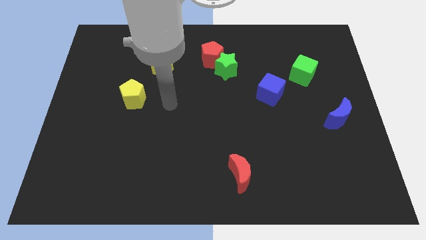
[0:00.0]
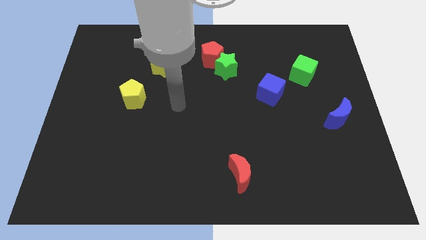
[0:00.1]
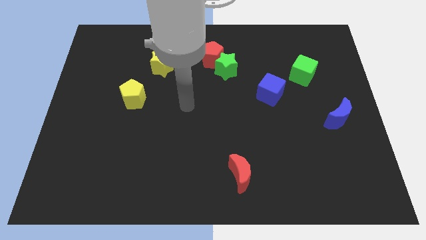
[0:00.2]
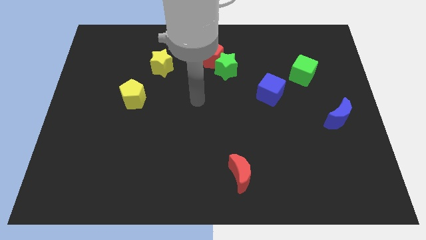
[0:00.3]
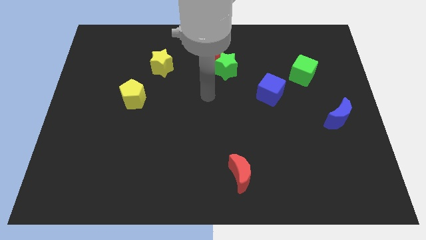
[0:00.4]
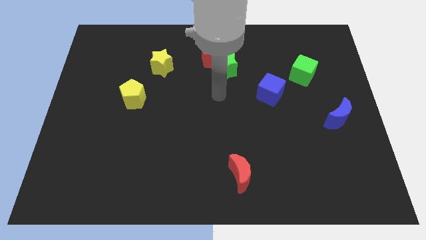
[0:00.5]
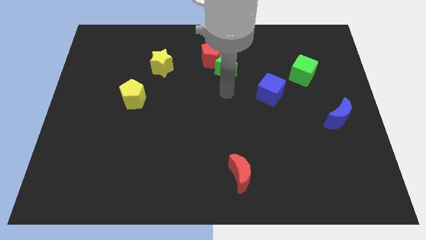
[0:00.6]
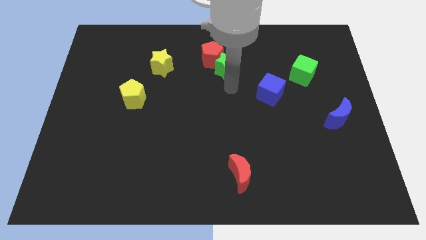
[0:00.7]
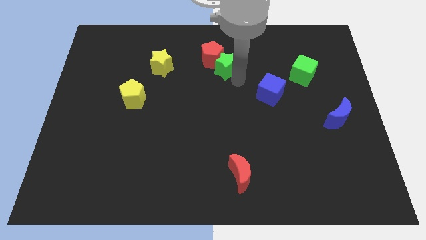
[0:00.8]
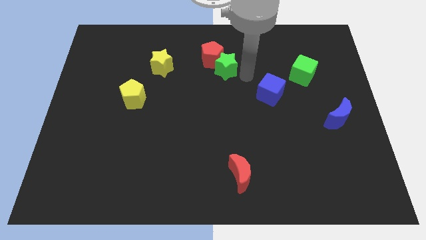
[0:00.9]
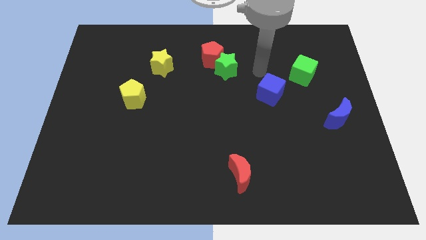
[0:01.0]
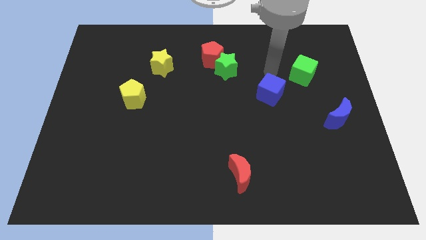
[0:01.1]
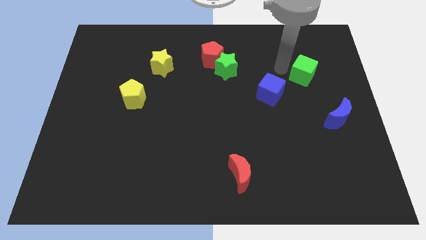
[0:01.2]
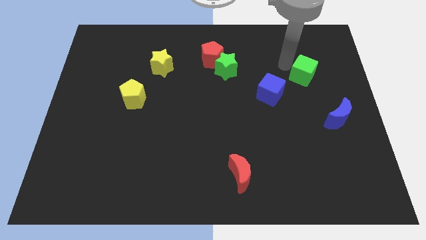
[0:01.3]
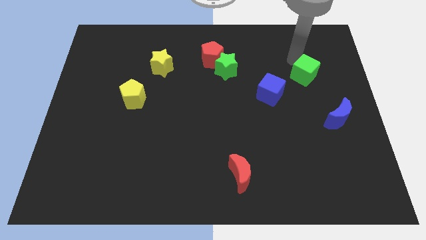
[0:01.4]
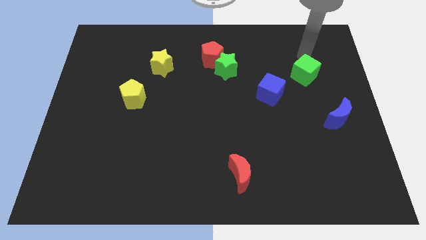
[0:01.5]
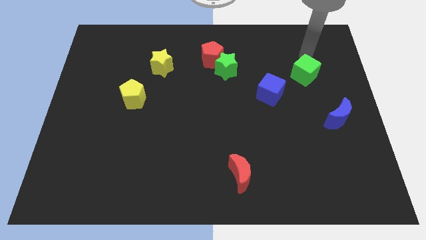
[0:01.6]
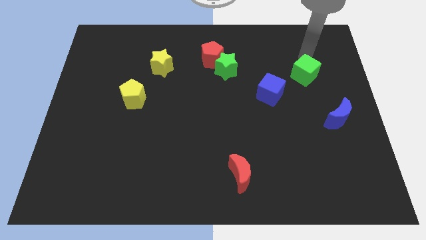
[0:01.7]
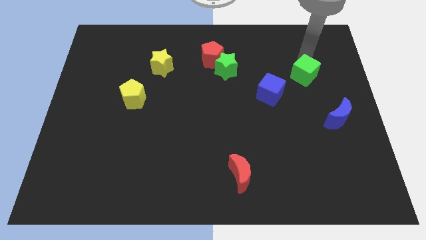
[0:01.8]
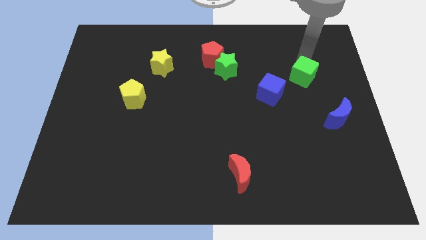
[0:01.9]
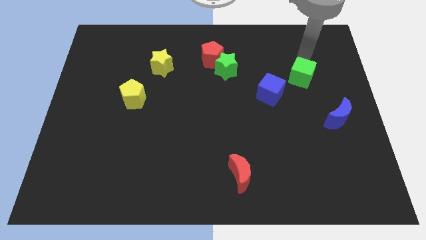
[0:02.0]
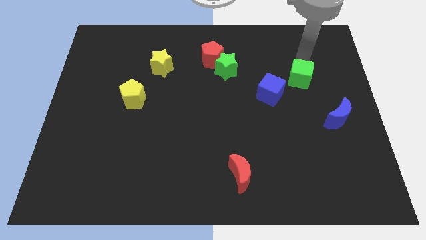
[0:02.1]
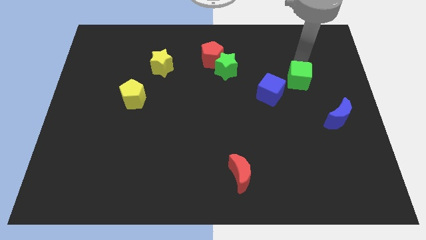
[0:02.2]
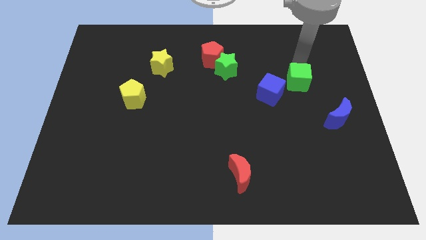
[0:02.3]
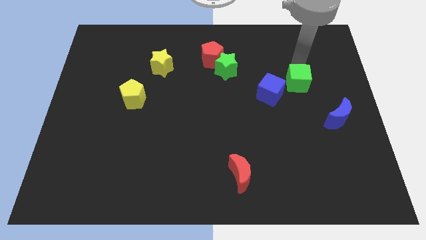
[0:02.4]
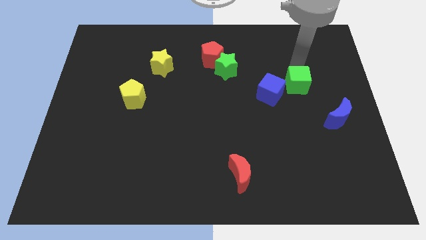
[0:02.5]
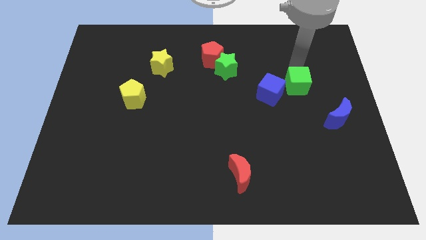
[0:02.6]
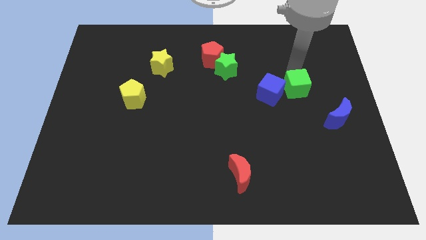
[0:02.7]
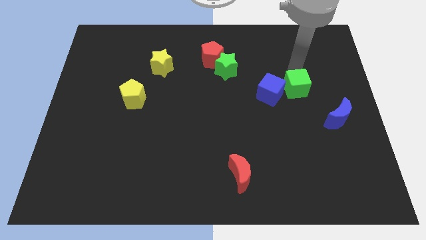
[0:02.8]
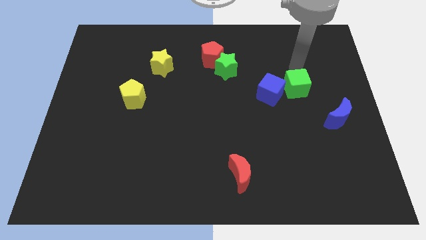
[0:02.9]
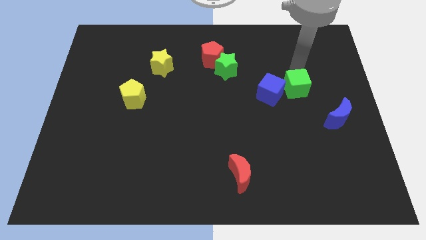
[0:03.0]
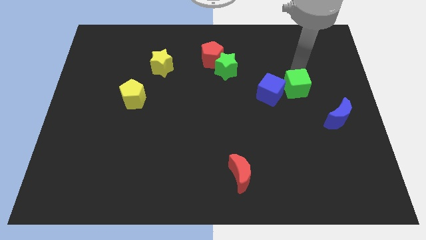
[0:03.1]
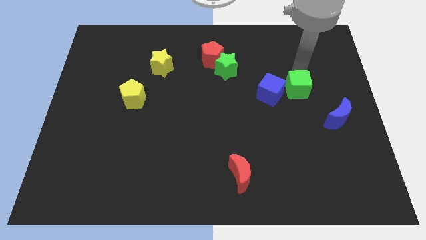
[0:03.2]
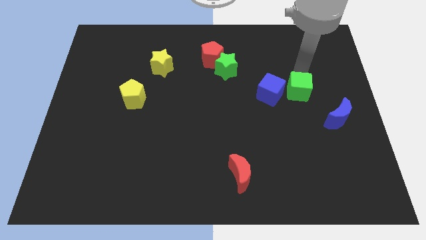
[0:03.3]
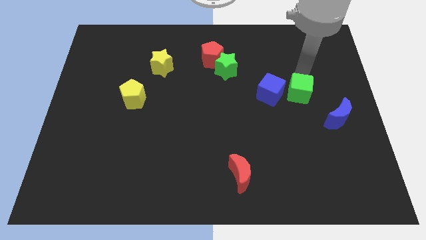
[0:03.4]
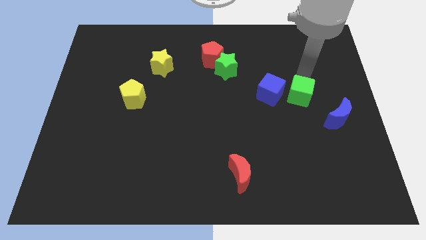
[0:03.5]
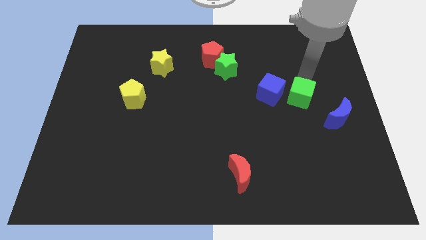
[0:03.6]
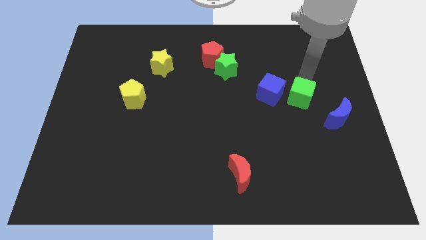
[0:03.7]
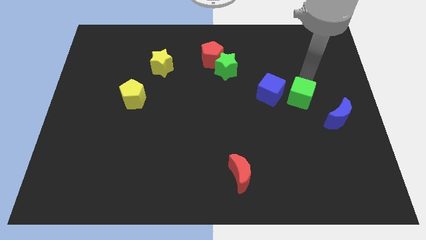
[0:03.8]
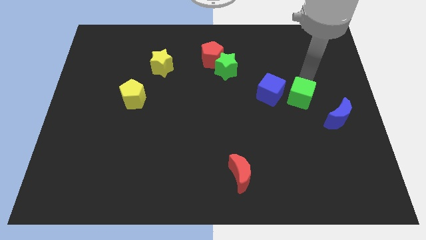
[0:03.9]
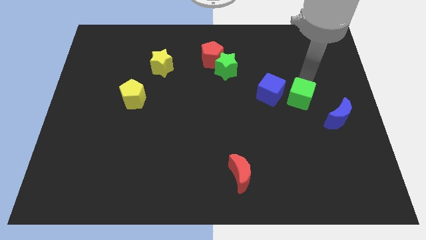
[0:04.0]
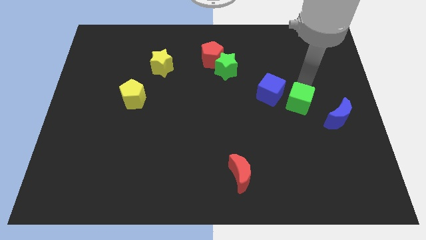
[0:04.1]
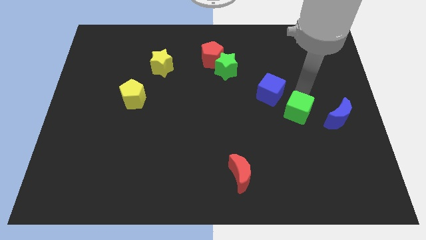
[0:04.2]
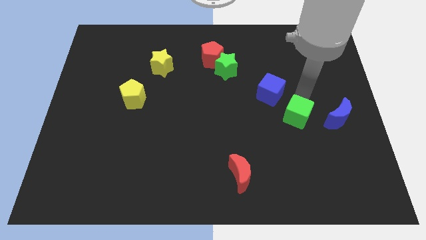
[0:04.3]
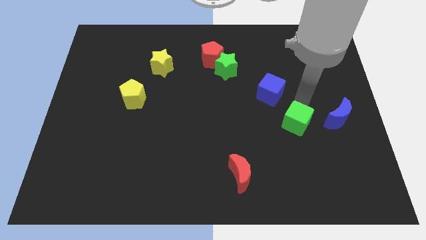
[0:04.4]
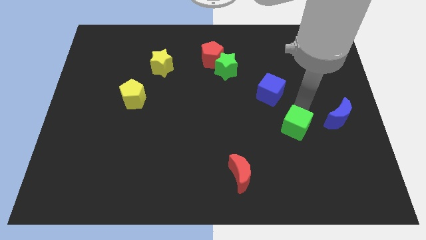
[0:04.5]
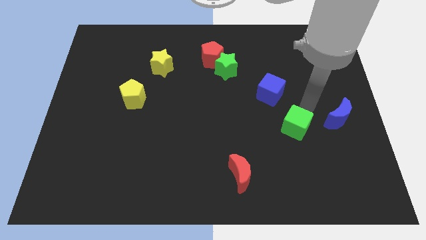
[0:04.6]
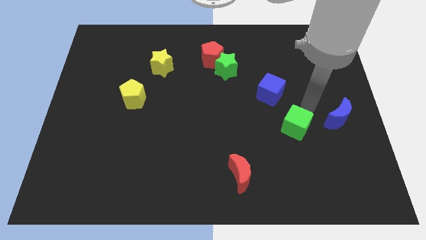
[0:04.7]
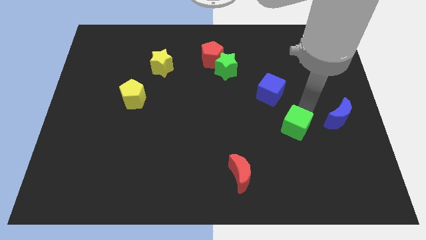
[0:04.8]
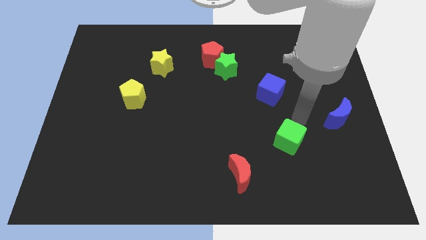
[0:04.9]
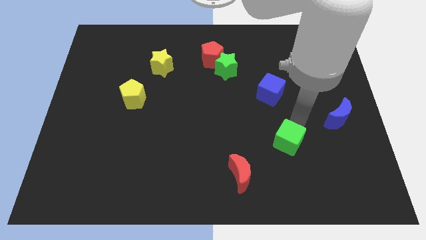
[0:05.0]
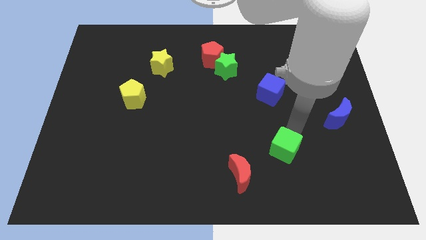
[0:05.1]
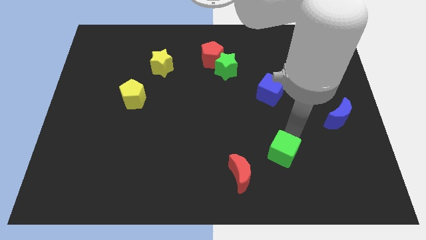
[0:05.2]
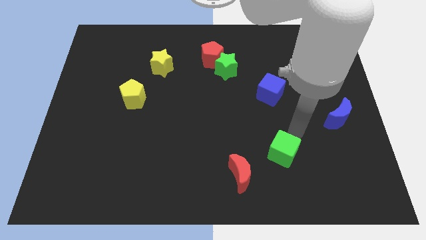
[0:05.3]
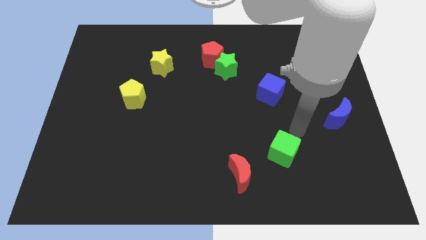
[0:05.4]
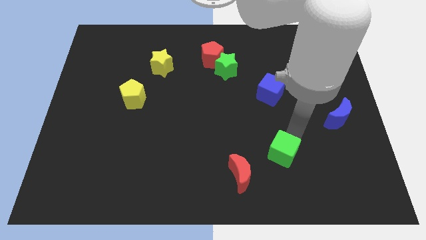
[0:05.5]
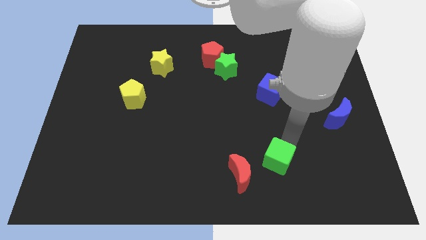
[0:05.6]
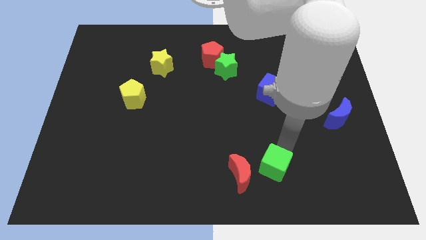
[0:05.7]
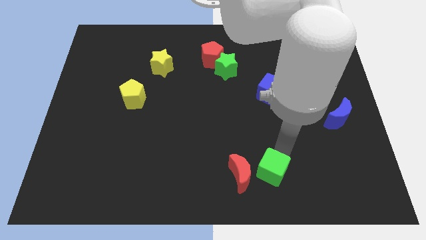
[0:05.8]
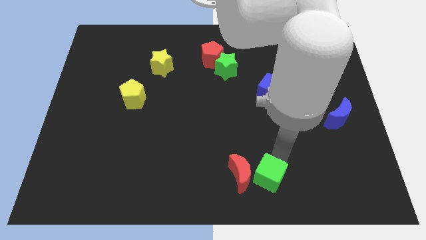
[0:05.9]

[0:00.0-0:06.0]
push the green cube to the bottom

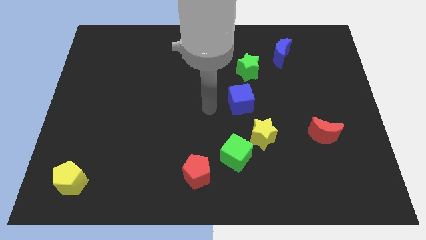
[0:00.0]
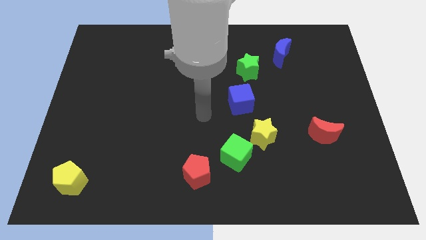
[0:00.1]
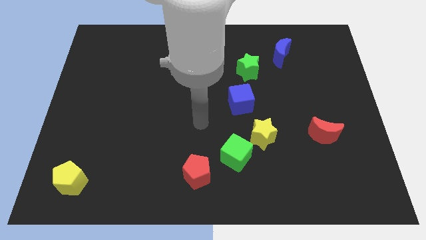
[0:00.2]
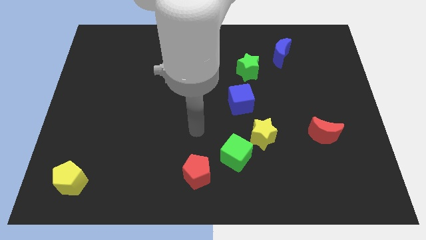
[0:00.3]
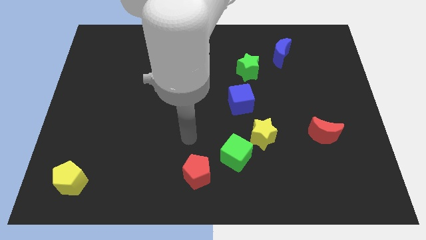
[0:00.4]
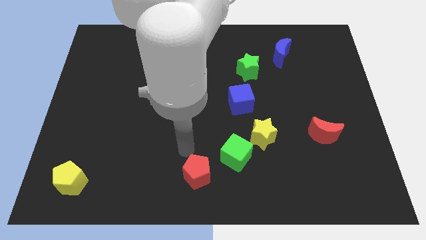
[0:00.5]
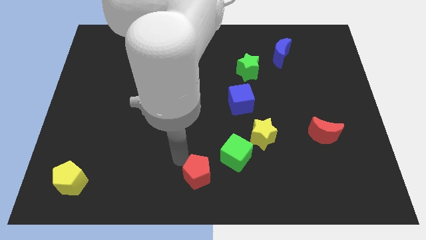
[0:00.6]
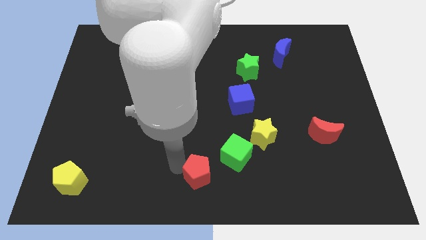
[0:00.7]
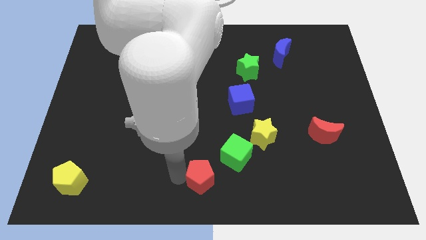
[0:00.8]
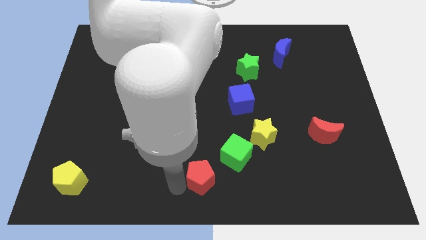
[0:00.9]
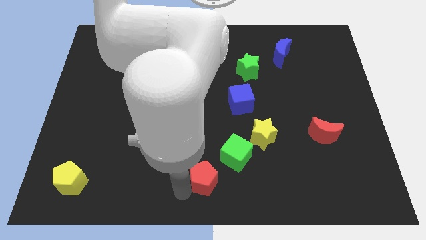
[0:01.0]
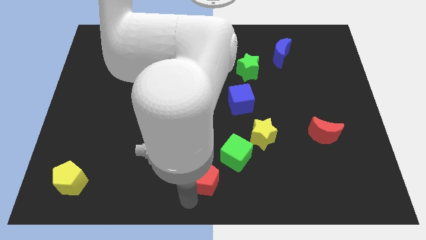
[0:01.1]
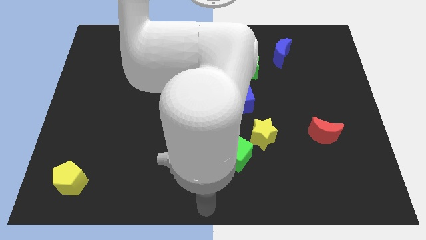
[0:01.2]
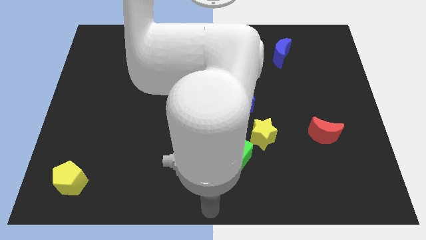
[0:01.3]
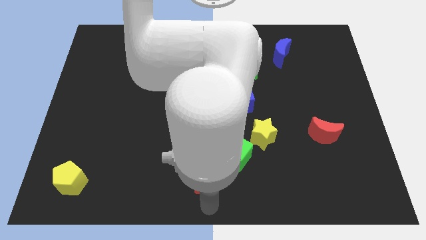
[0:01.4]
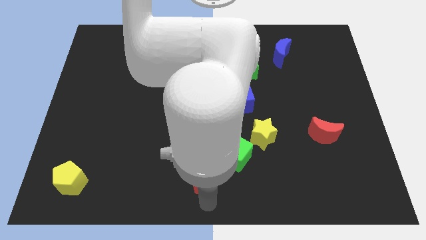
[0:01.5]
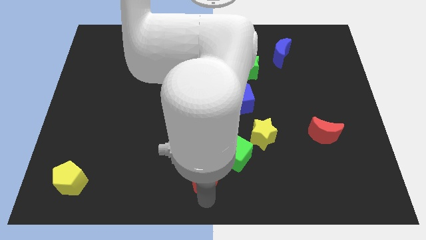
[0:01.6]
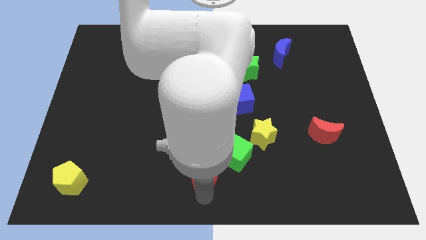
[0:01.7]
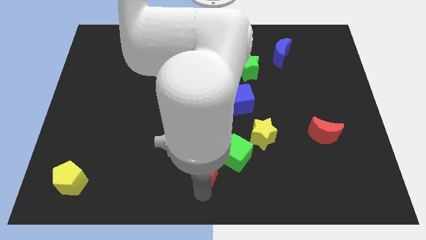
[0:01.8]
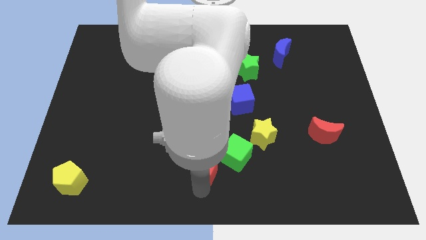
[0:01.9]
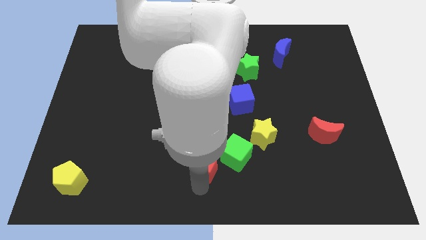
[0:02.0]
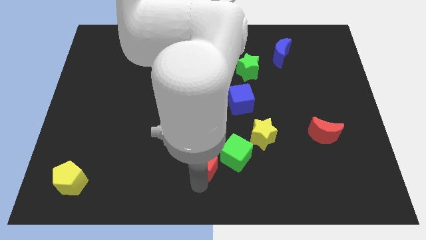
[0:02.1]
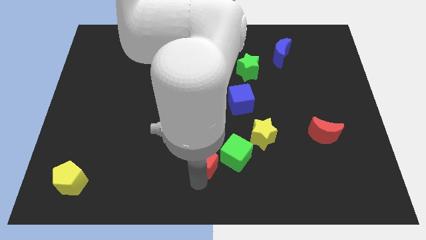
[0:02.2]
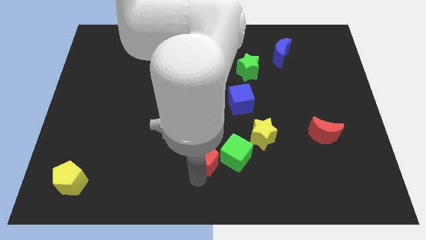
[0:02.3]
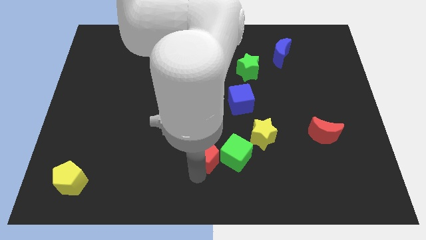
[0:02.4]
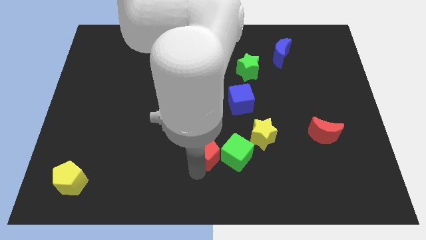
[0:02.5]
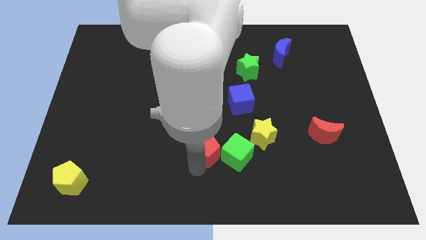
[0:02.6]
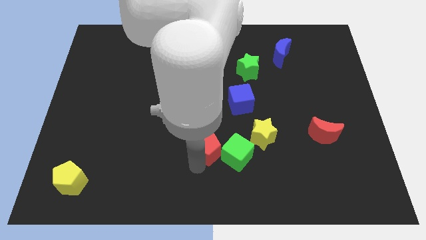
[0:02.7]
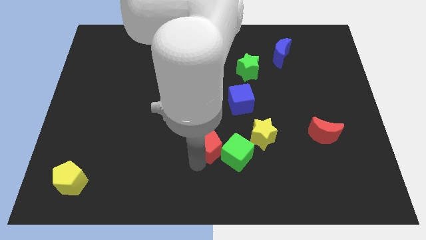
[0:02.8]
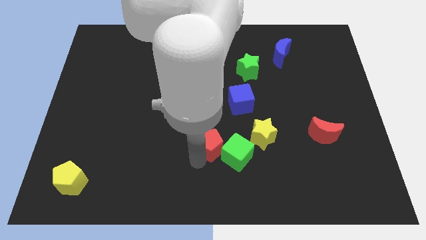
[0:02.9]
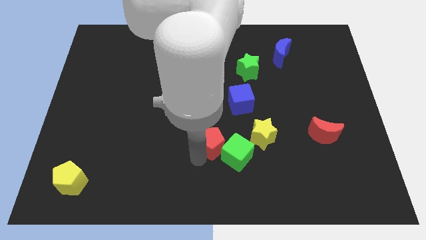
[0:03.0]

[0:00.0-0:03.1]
move the red pentagon to the center of the board
